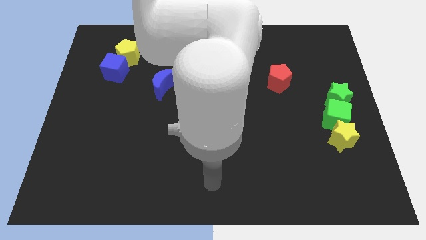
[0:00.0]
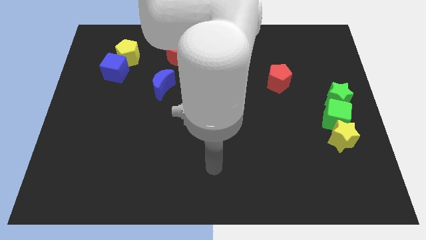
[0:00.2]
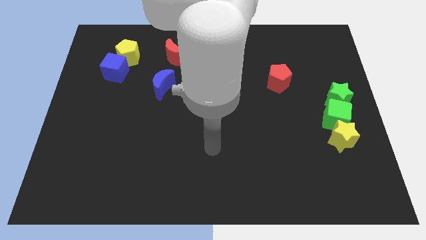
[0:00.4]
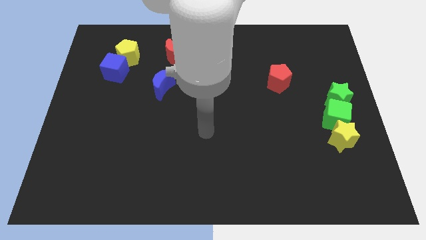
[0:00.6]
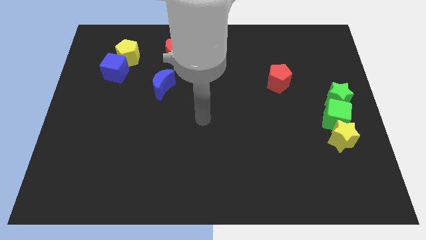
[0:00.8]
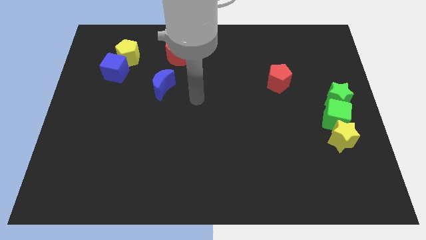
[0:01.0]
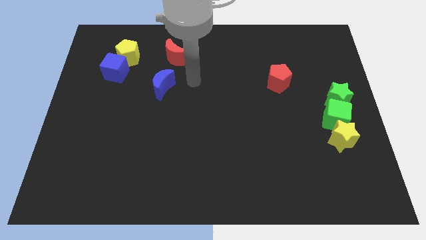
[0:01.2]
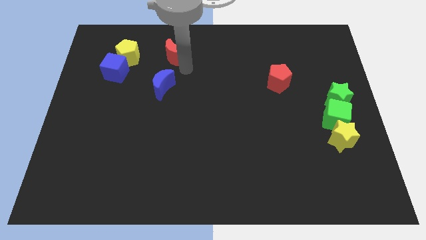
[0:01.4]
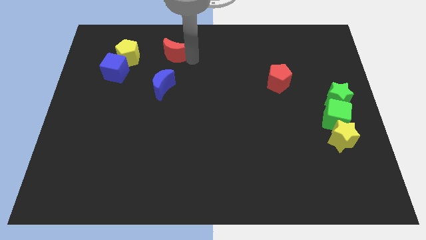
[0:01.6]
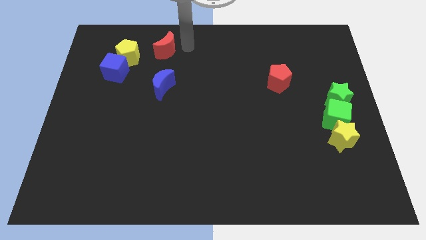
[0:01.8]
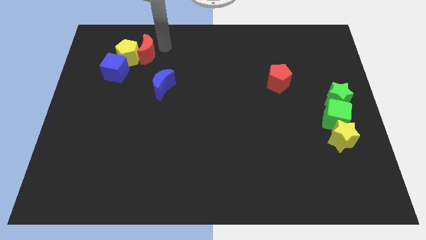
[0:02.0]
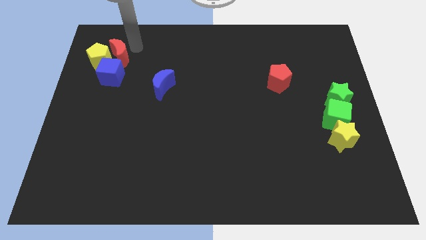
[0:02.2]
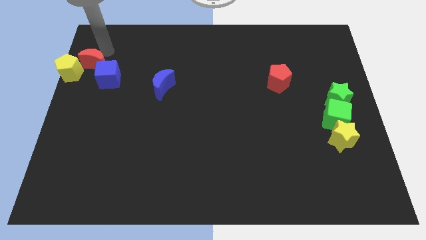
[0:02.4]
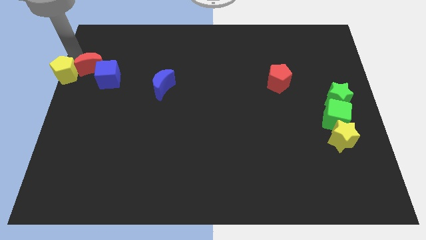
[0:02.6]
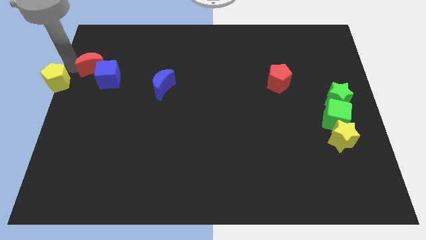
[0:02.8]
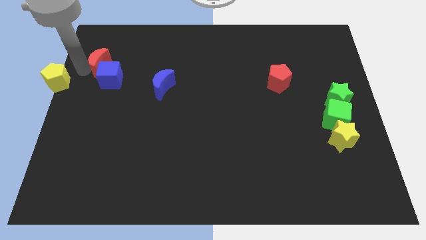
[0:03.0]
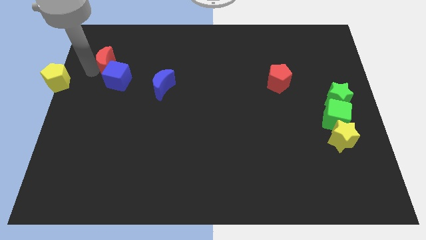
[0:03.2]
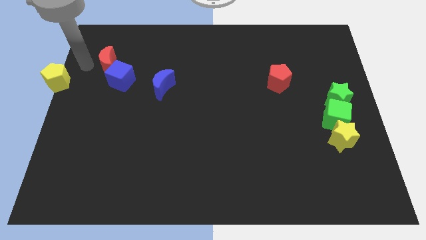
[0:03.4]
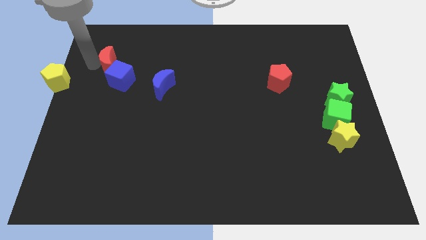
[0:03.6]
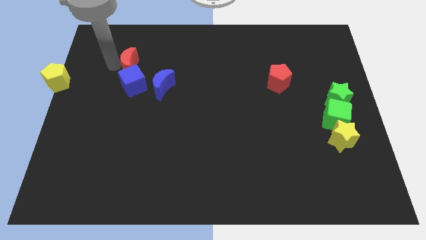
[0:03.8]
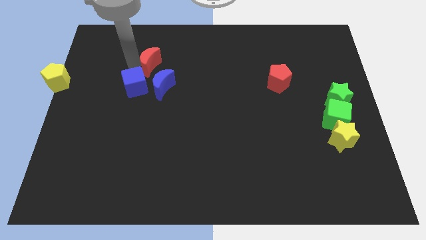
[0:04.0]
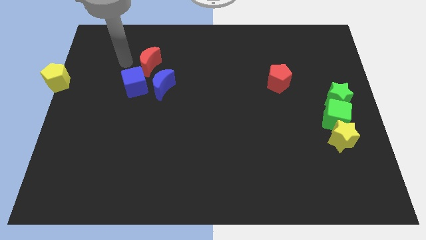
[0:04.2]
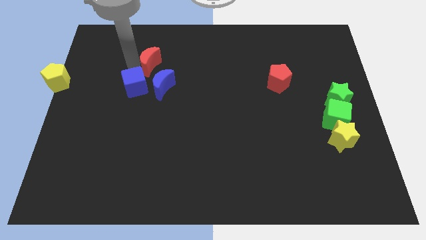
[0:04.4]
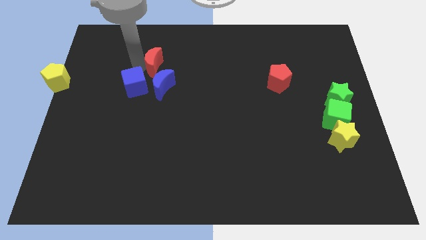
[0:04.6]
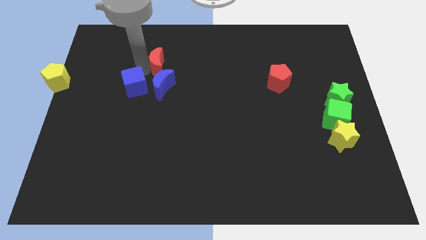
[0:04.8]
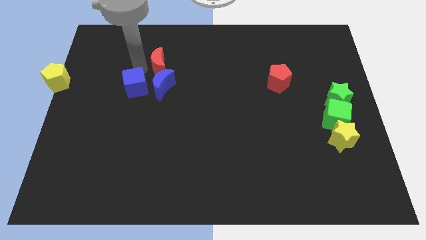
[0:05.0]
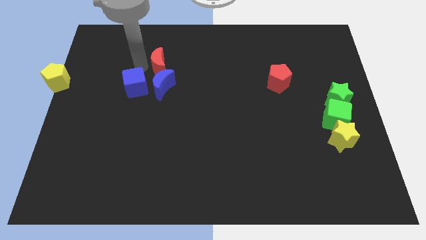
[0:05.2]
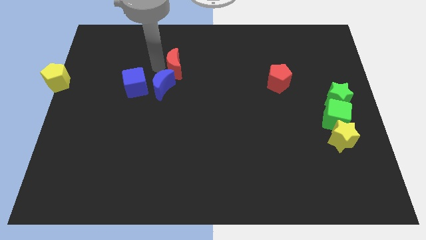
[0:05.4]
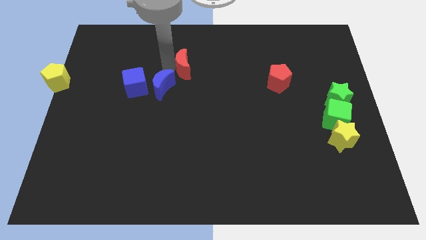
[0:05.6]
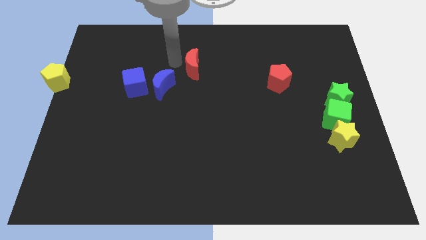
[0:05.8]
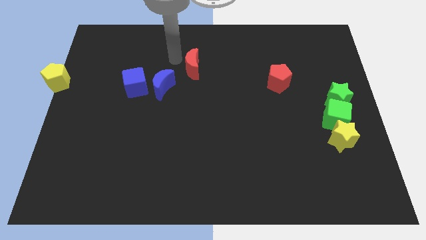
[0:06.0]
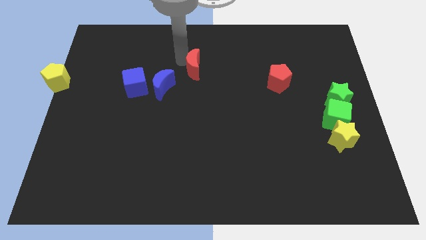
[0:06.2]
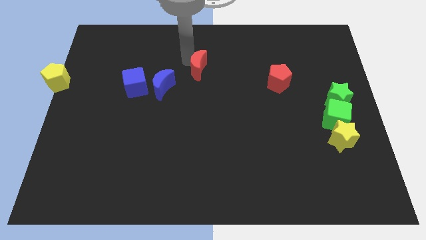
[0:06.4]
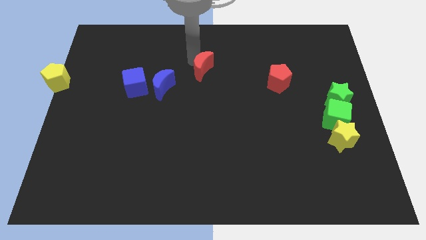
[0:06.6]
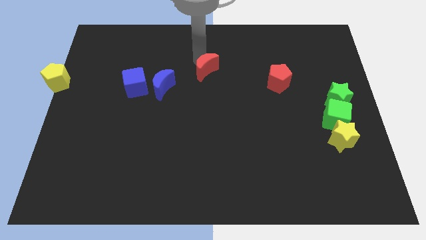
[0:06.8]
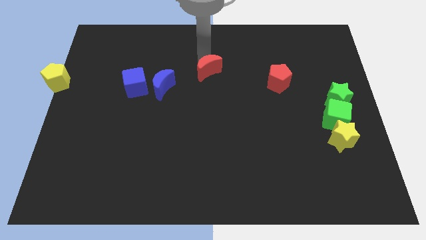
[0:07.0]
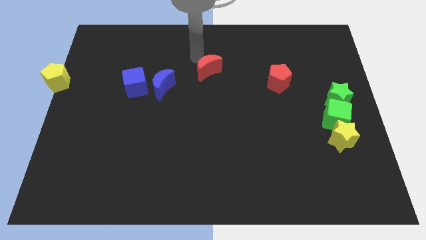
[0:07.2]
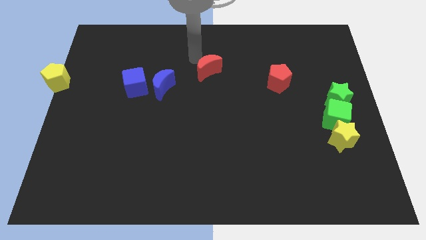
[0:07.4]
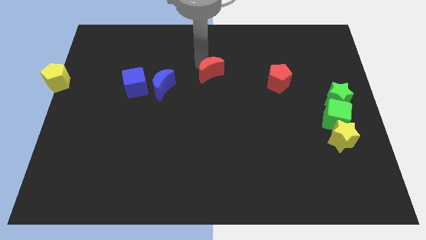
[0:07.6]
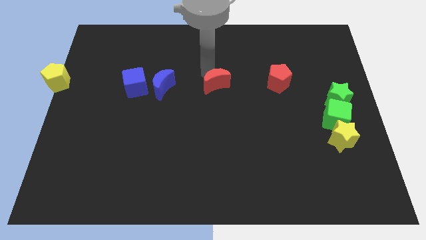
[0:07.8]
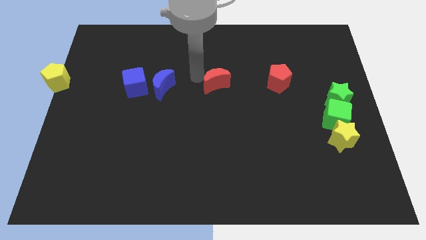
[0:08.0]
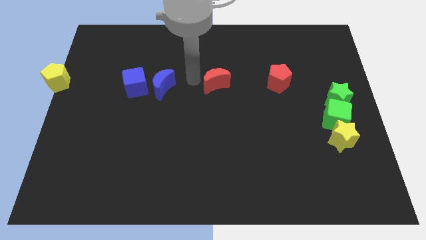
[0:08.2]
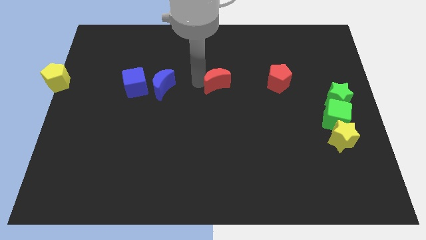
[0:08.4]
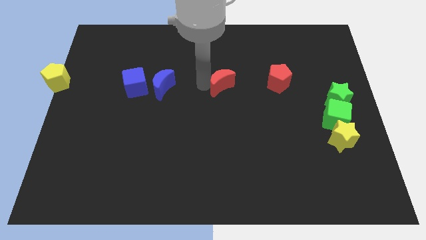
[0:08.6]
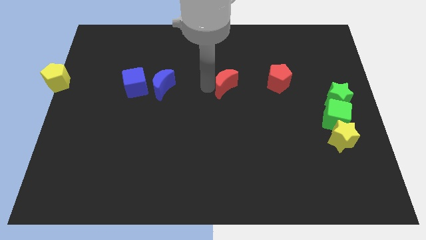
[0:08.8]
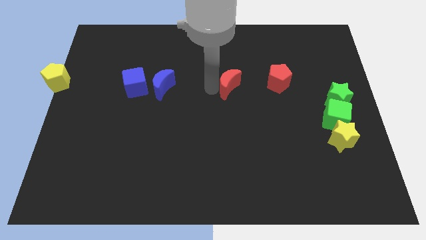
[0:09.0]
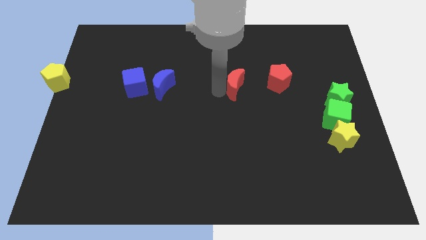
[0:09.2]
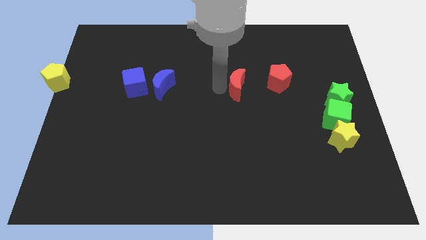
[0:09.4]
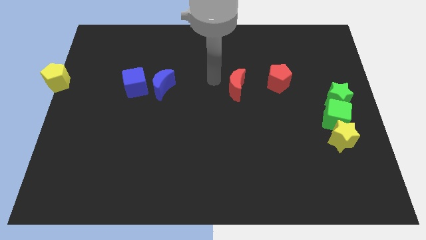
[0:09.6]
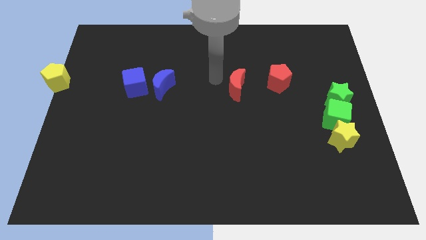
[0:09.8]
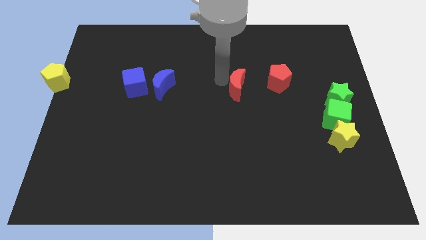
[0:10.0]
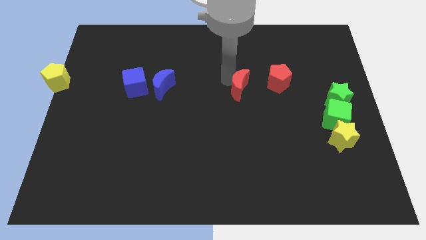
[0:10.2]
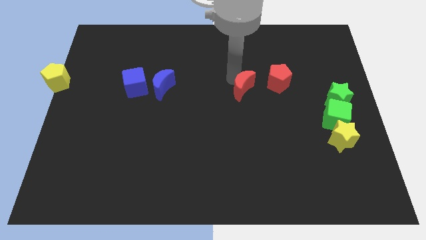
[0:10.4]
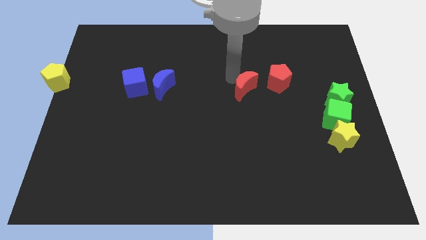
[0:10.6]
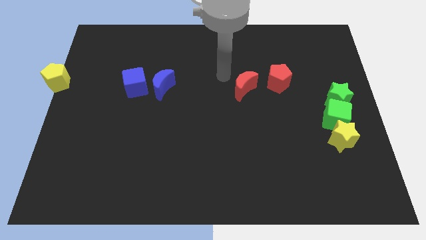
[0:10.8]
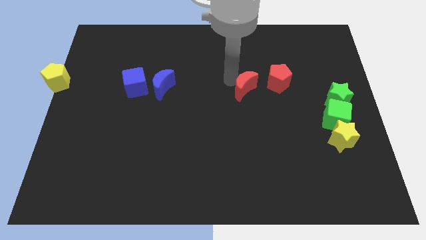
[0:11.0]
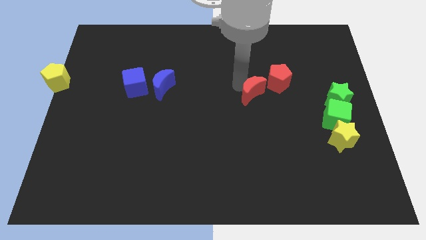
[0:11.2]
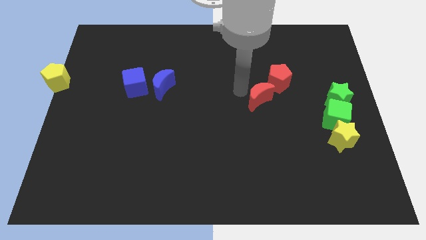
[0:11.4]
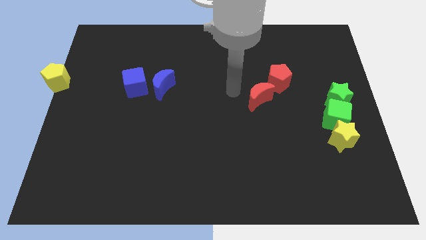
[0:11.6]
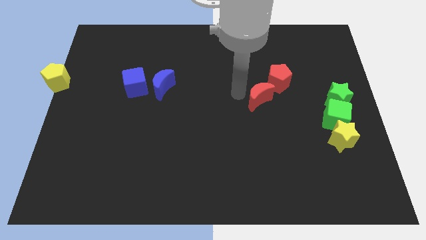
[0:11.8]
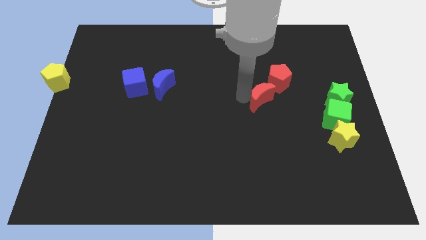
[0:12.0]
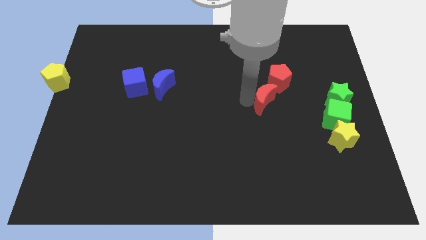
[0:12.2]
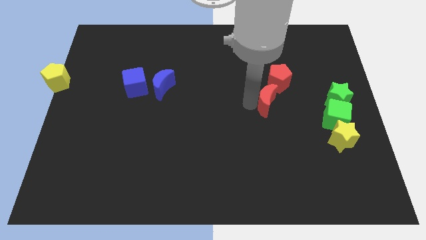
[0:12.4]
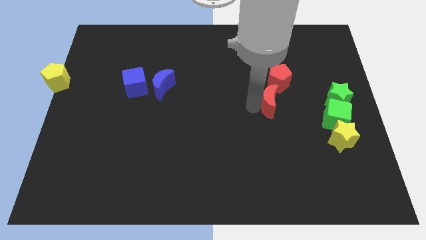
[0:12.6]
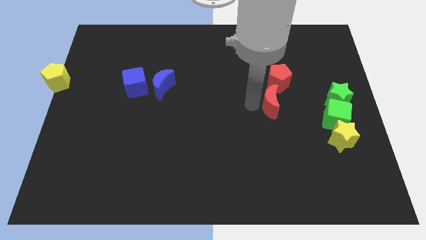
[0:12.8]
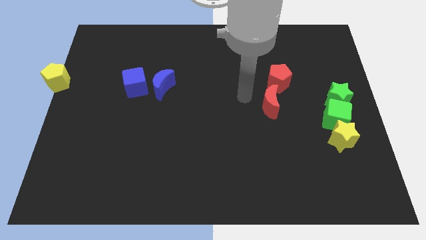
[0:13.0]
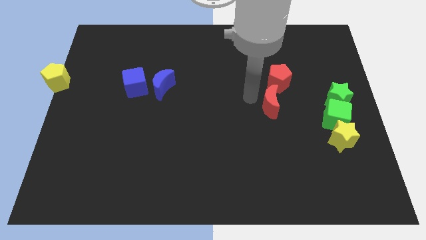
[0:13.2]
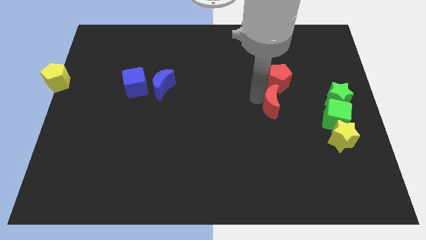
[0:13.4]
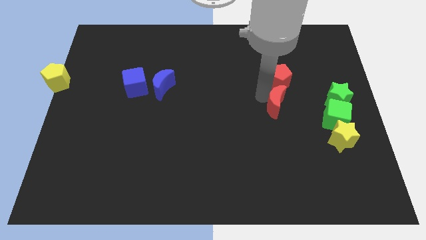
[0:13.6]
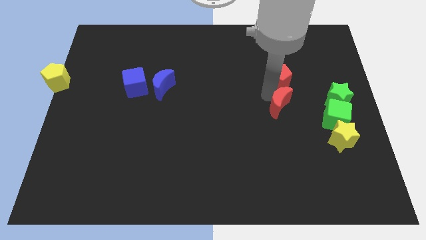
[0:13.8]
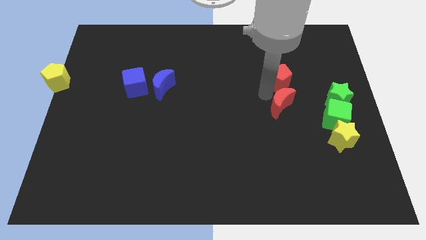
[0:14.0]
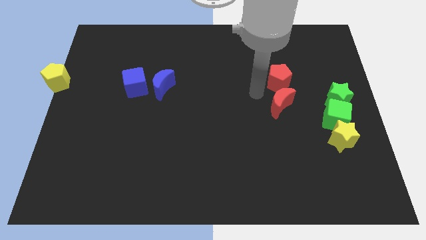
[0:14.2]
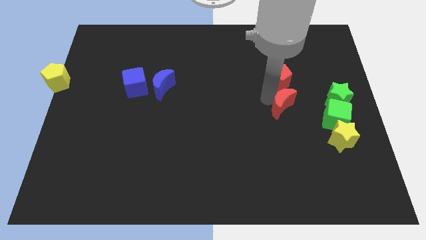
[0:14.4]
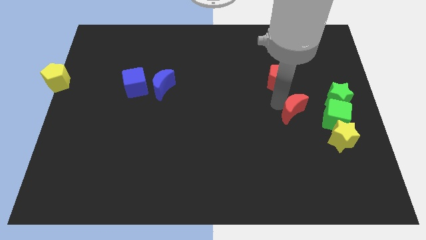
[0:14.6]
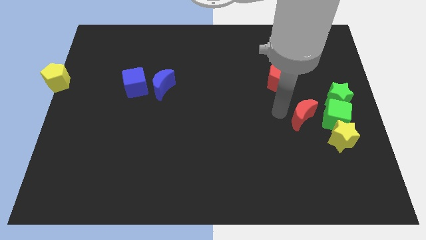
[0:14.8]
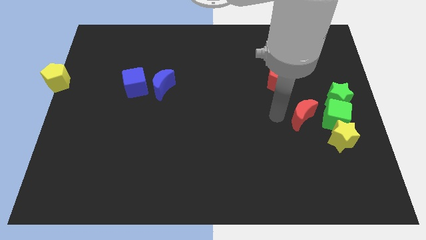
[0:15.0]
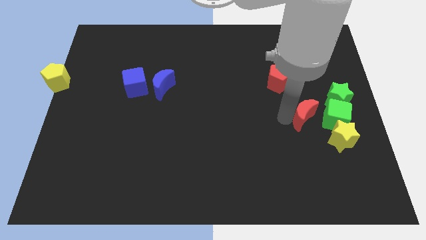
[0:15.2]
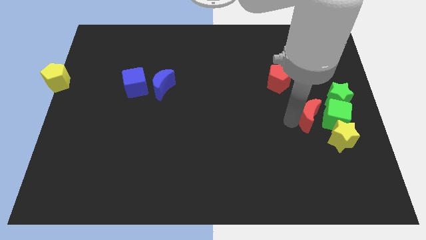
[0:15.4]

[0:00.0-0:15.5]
push the red moon towards the green cube
